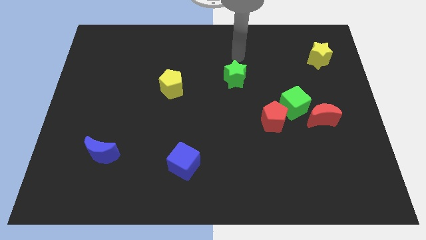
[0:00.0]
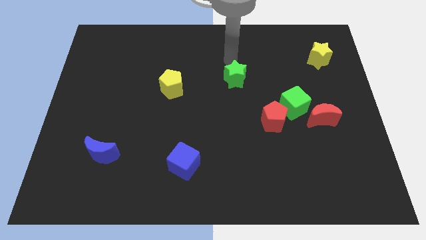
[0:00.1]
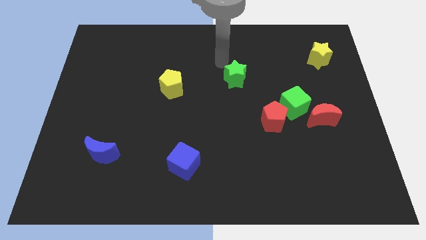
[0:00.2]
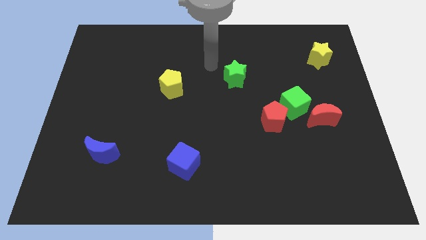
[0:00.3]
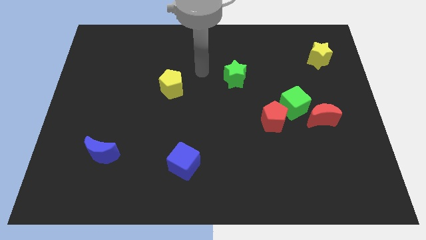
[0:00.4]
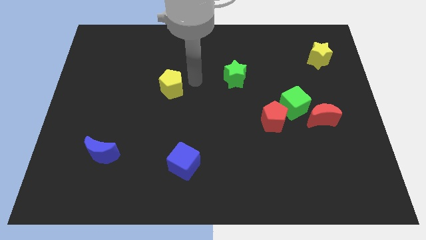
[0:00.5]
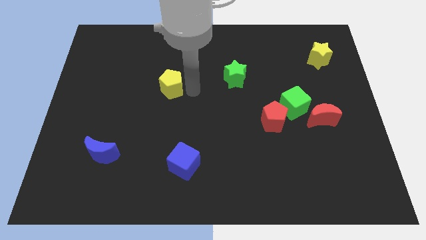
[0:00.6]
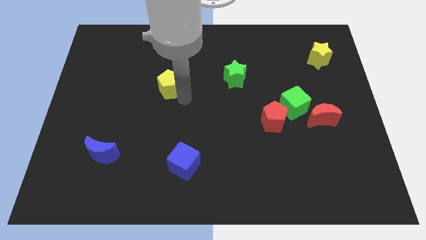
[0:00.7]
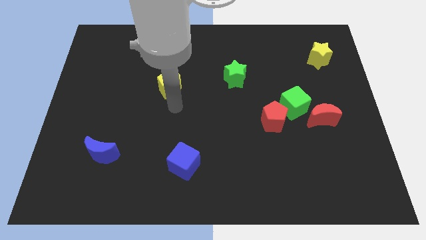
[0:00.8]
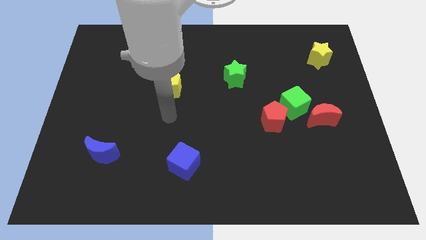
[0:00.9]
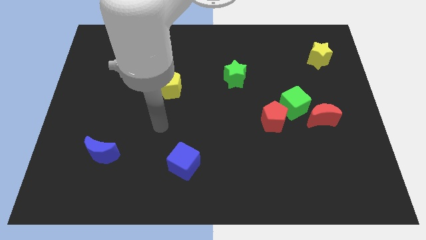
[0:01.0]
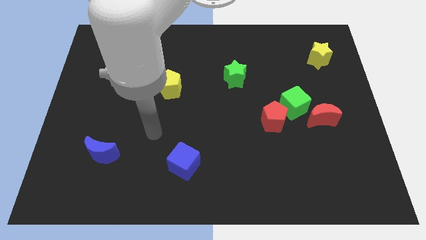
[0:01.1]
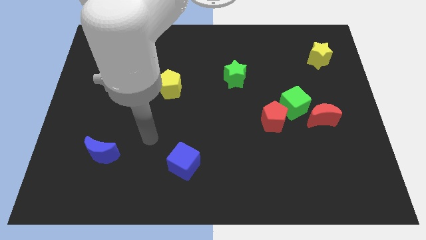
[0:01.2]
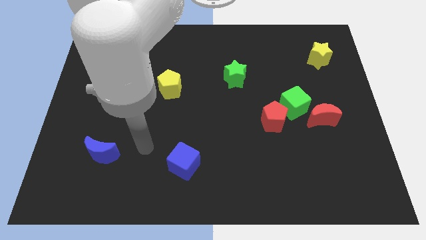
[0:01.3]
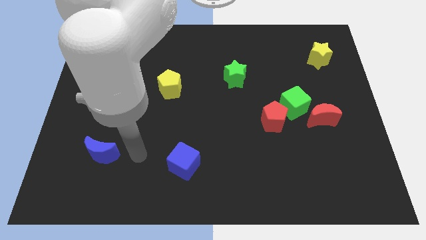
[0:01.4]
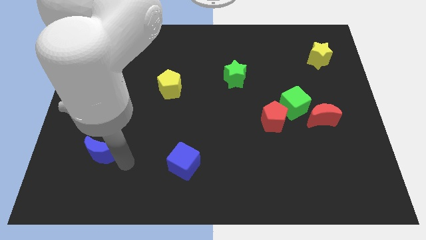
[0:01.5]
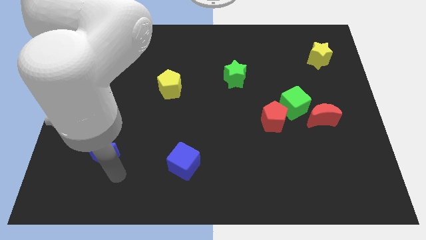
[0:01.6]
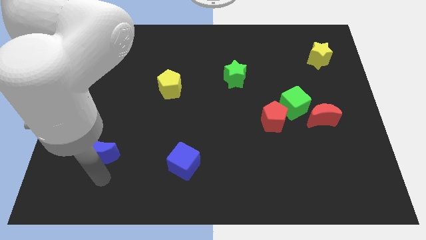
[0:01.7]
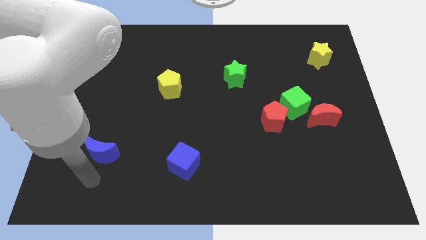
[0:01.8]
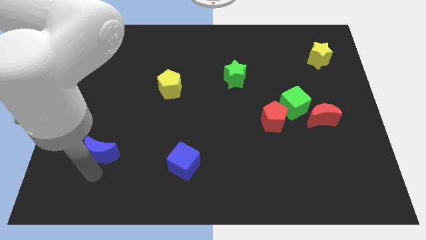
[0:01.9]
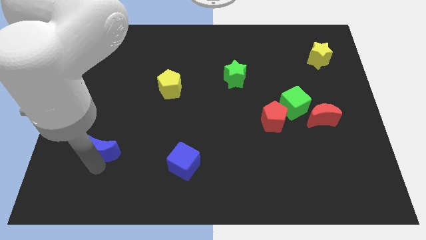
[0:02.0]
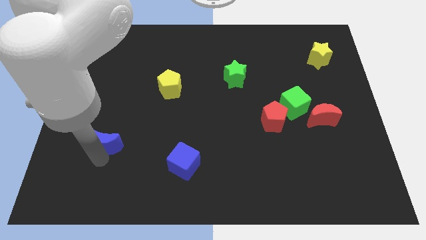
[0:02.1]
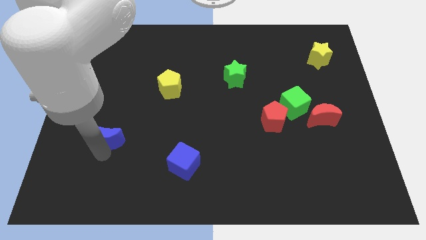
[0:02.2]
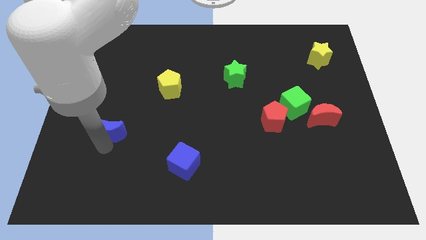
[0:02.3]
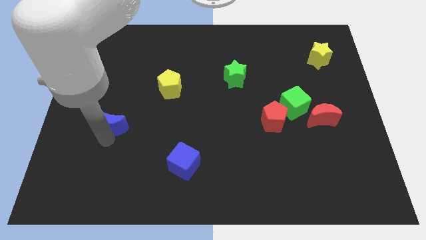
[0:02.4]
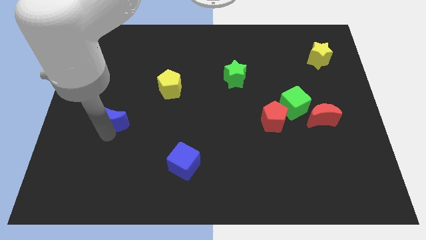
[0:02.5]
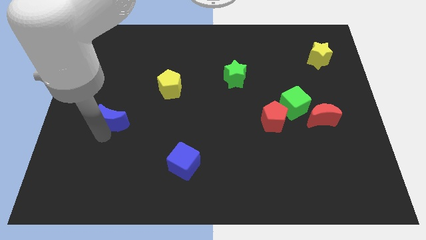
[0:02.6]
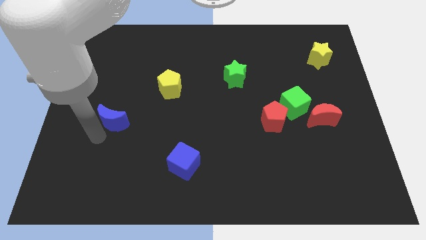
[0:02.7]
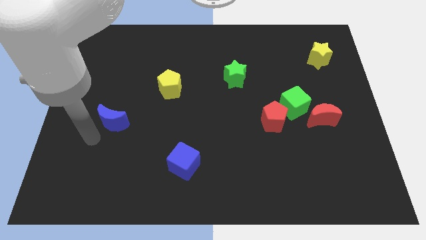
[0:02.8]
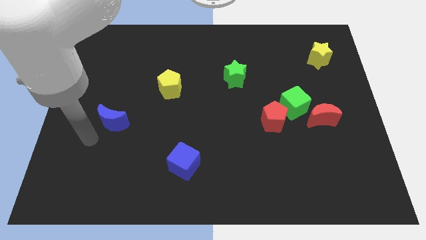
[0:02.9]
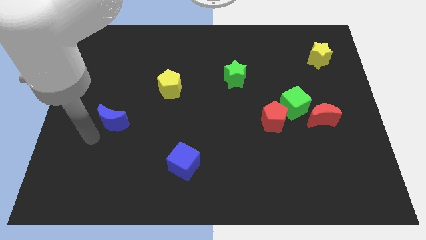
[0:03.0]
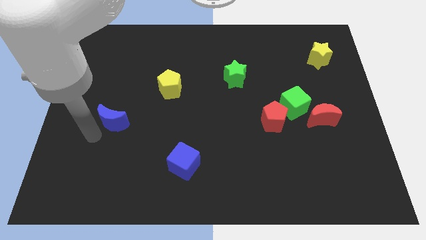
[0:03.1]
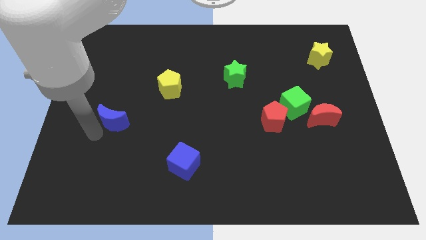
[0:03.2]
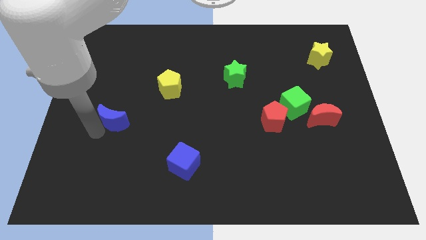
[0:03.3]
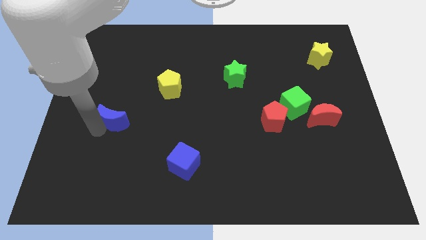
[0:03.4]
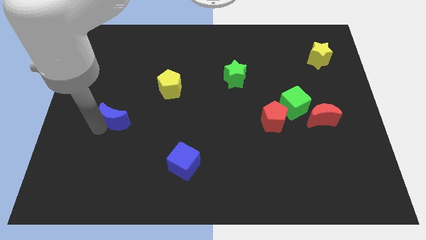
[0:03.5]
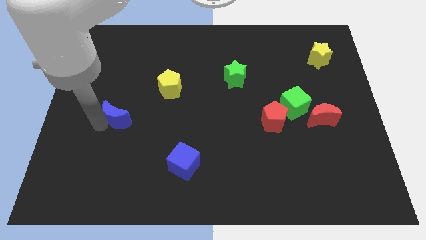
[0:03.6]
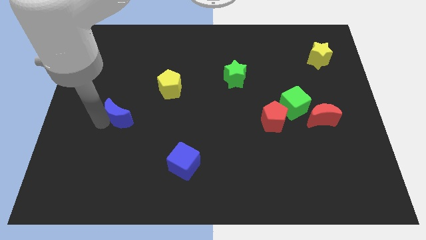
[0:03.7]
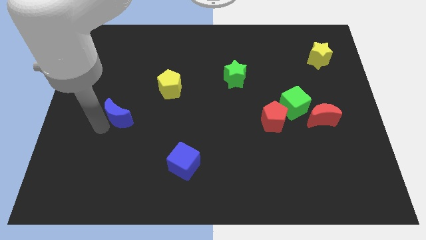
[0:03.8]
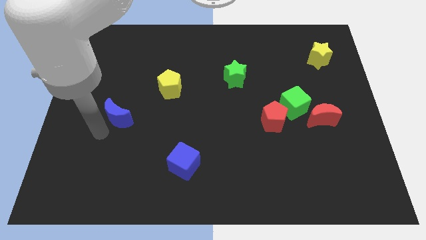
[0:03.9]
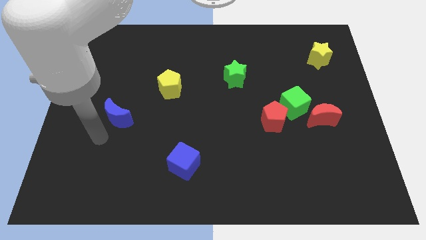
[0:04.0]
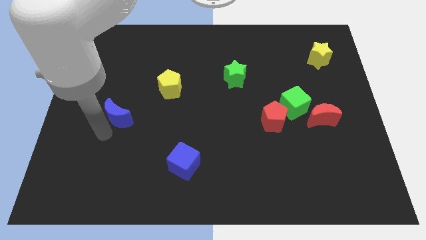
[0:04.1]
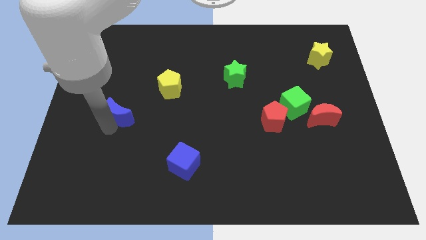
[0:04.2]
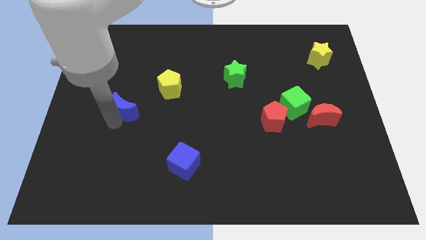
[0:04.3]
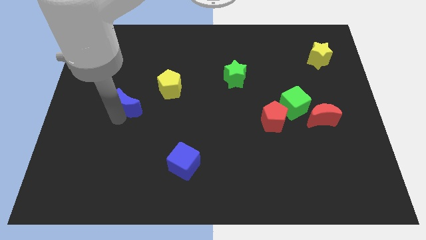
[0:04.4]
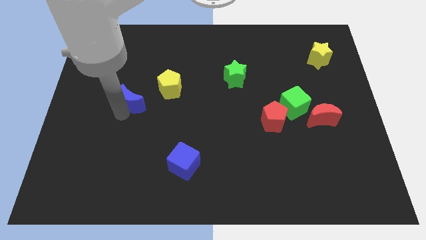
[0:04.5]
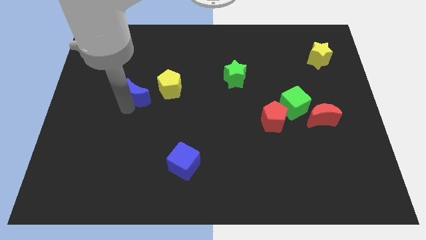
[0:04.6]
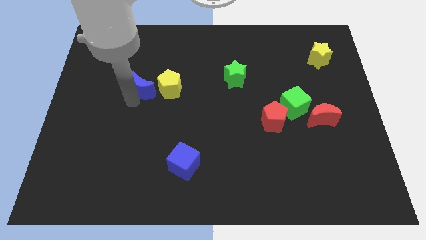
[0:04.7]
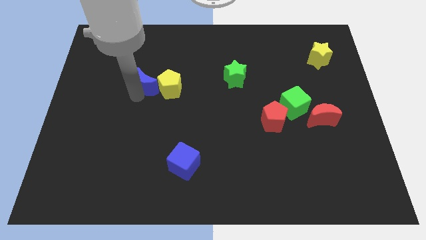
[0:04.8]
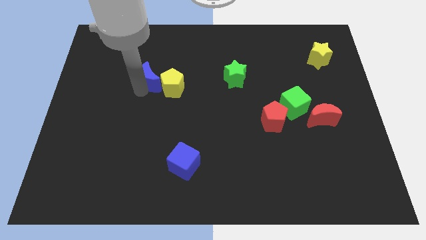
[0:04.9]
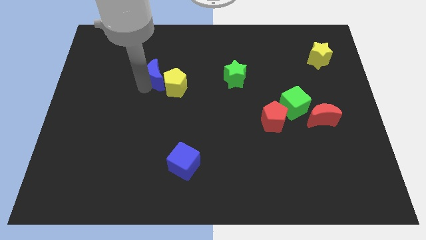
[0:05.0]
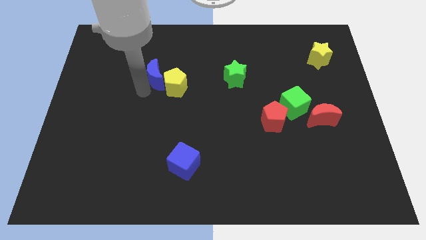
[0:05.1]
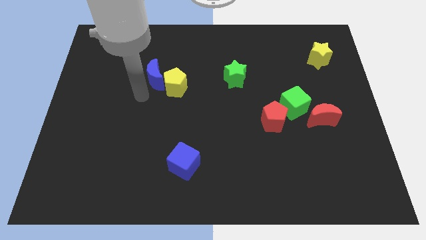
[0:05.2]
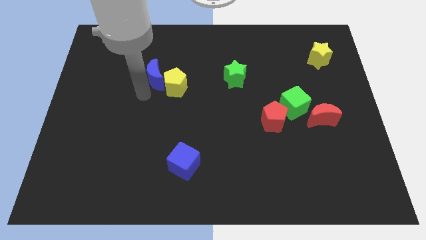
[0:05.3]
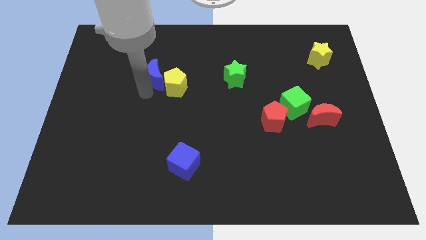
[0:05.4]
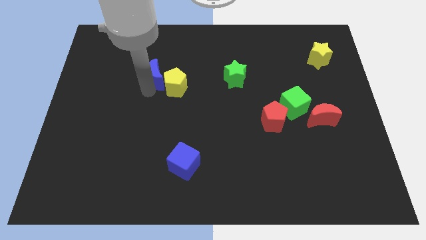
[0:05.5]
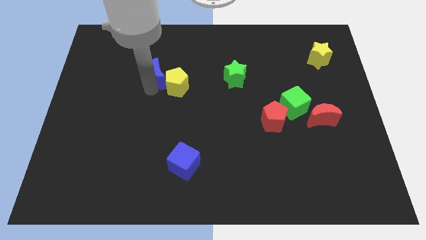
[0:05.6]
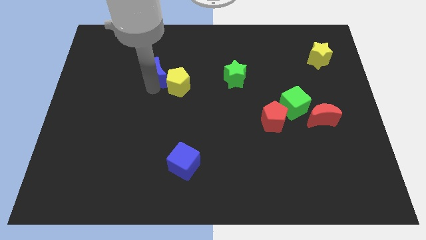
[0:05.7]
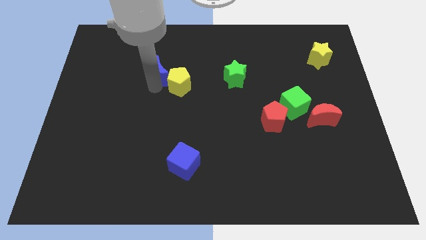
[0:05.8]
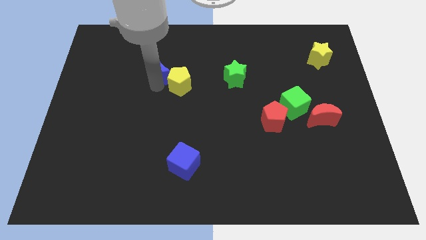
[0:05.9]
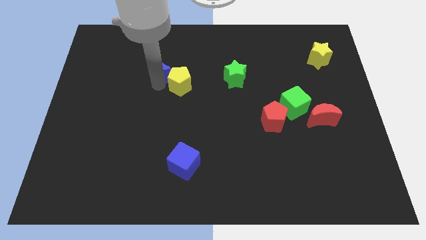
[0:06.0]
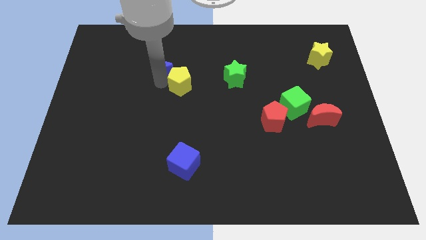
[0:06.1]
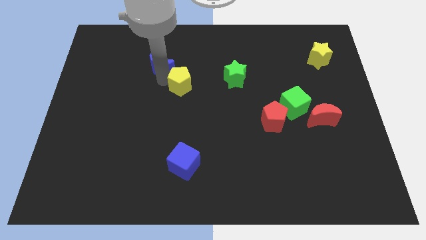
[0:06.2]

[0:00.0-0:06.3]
push the blue moon to the top of the yellow pentagon

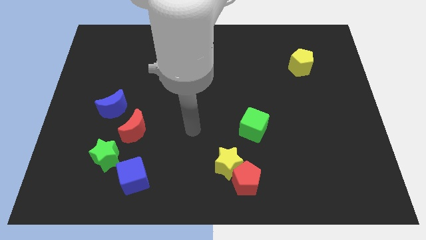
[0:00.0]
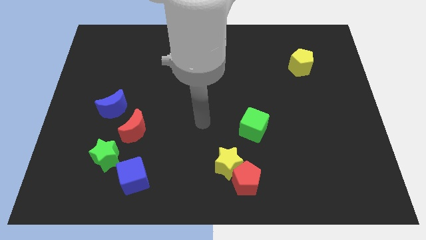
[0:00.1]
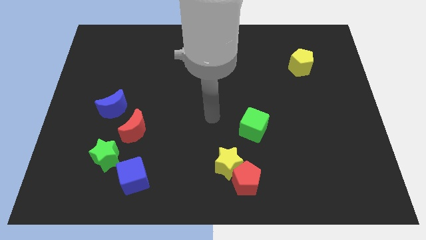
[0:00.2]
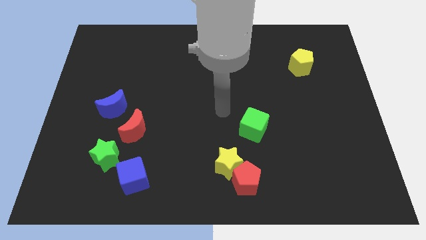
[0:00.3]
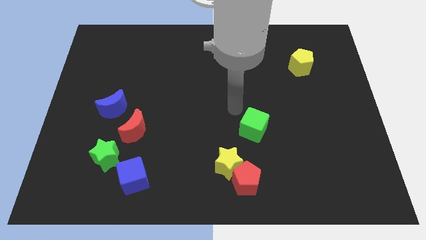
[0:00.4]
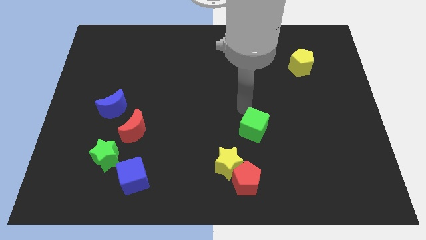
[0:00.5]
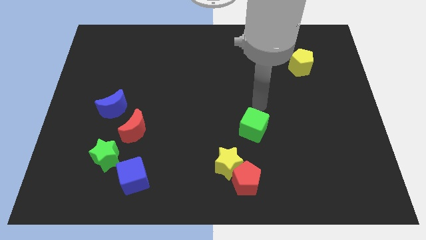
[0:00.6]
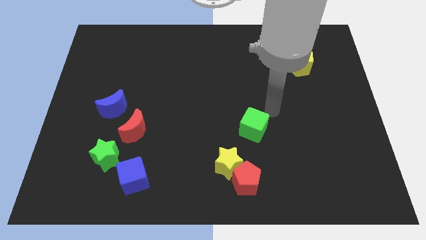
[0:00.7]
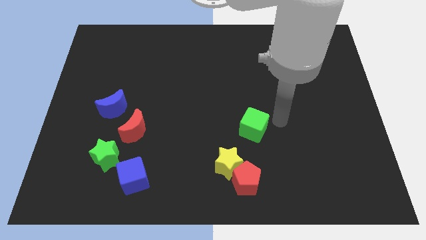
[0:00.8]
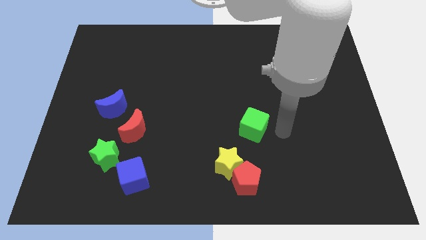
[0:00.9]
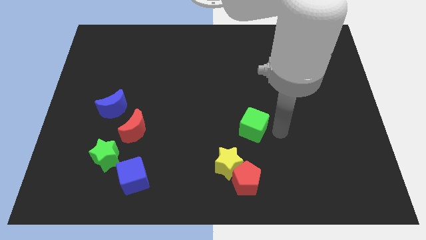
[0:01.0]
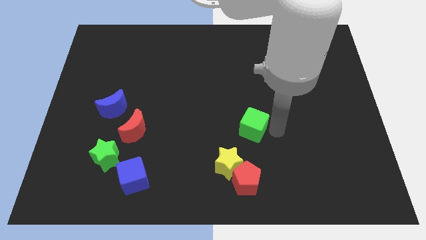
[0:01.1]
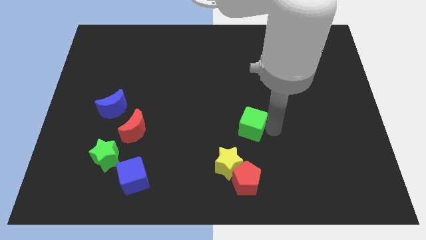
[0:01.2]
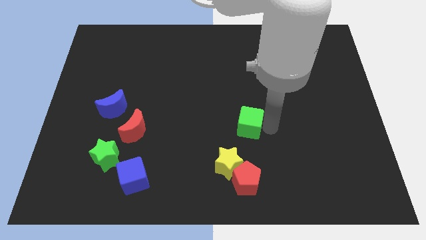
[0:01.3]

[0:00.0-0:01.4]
move the green cube to the top of the yellow star
